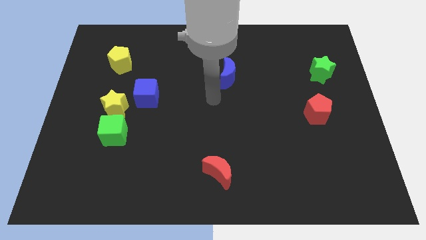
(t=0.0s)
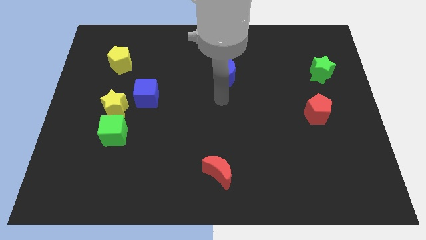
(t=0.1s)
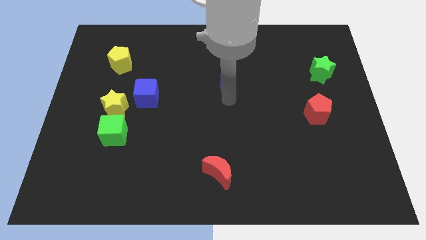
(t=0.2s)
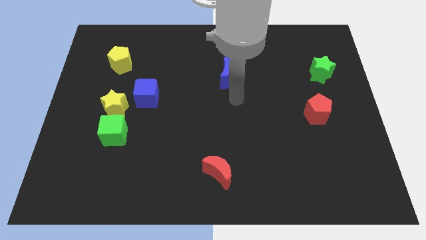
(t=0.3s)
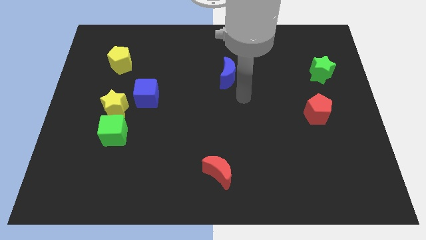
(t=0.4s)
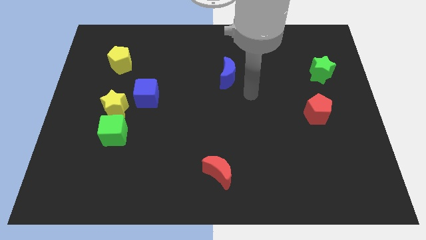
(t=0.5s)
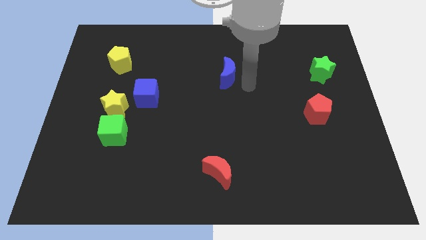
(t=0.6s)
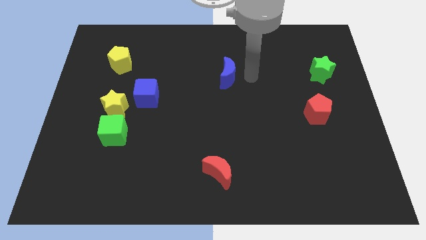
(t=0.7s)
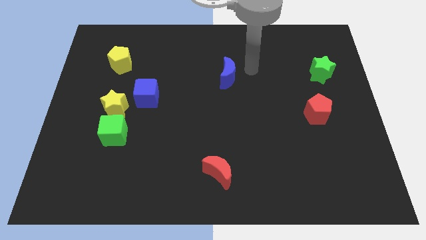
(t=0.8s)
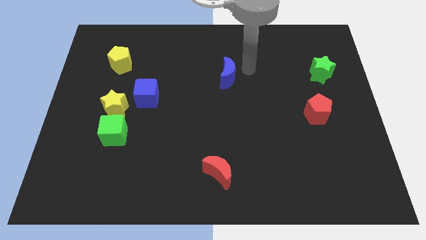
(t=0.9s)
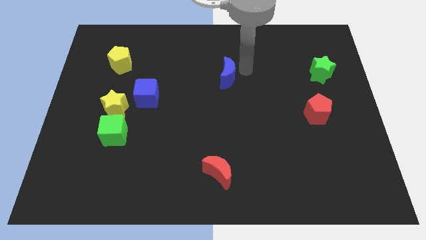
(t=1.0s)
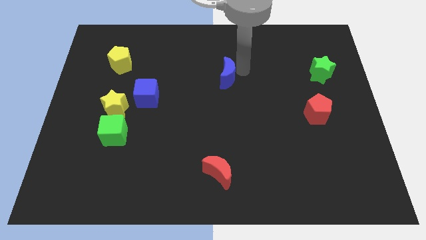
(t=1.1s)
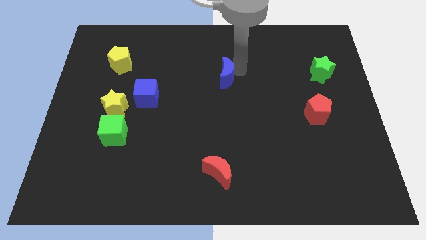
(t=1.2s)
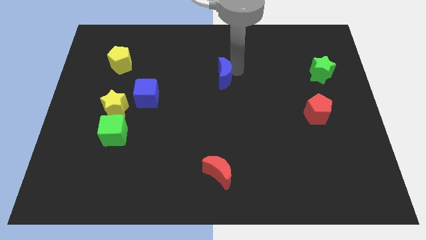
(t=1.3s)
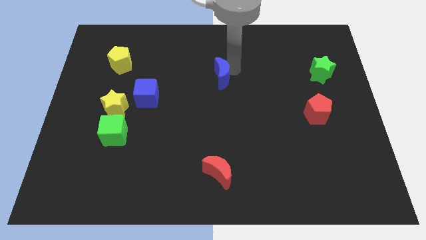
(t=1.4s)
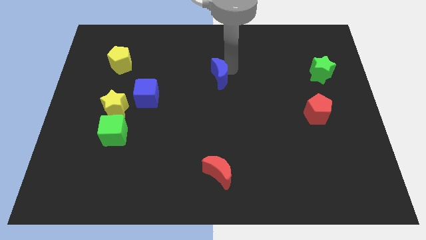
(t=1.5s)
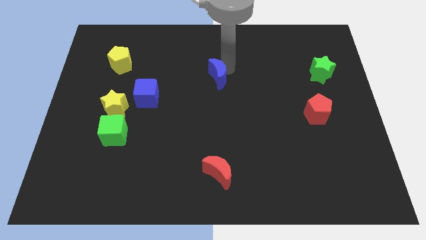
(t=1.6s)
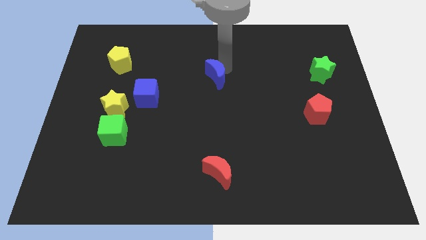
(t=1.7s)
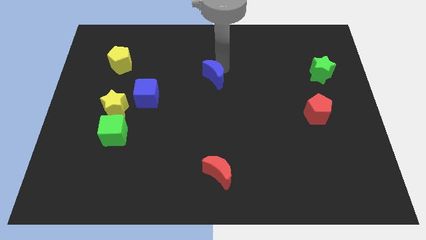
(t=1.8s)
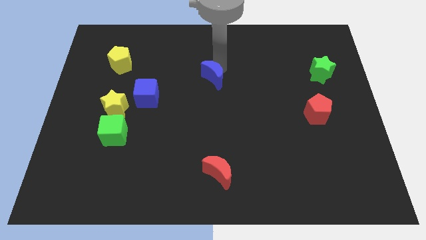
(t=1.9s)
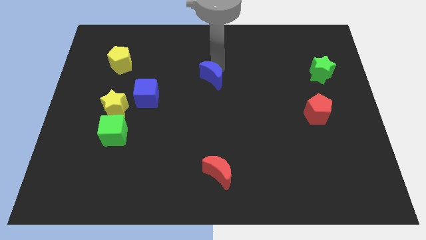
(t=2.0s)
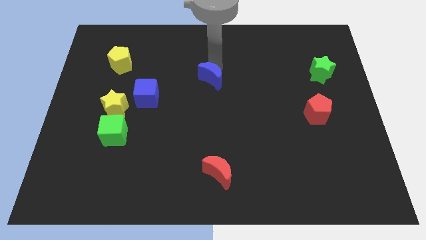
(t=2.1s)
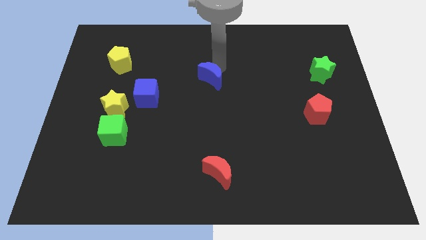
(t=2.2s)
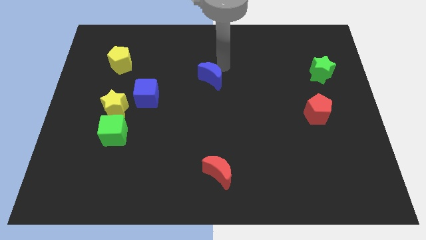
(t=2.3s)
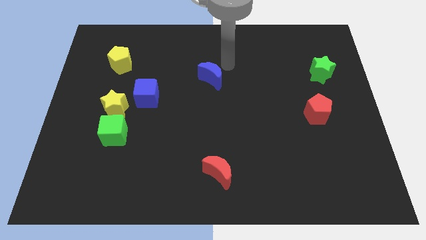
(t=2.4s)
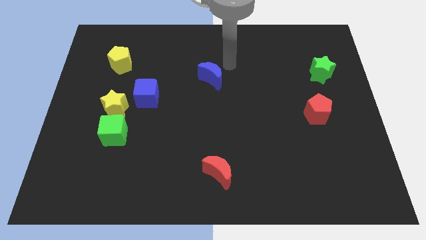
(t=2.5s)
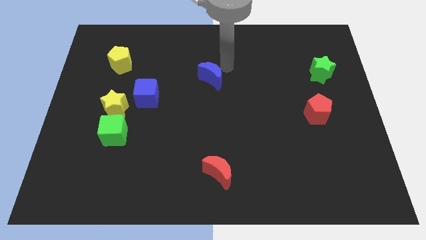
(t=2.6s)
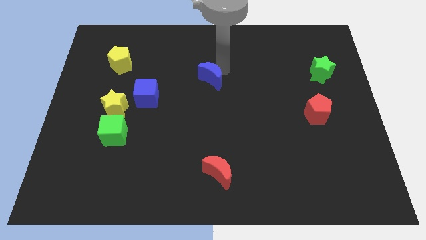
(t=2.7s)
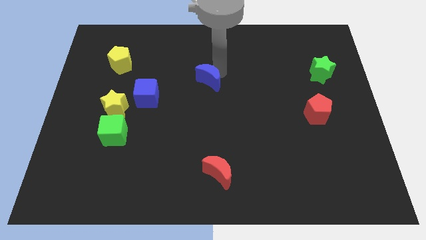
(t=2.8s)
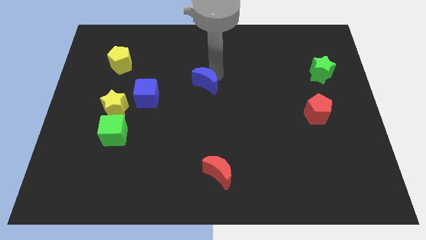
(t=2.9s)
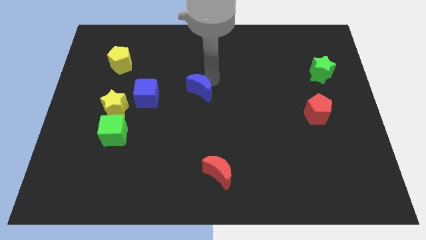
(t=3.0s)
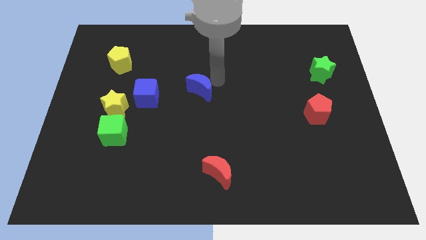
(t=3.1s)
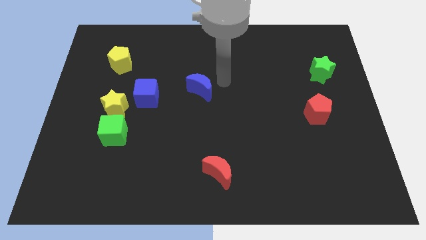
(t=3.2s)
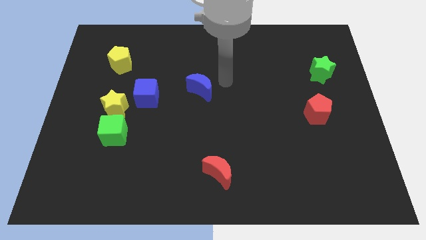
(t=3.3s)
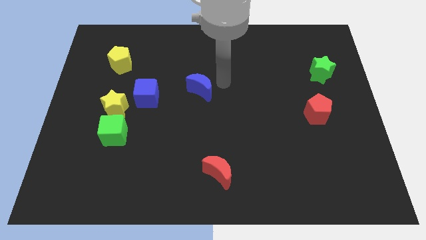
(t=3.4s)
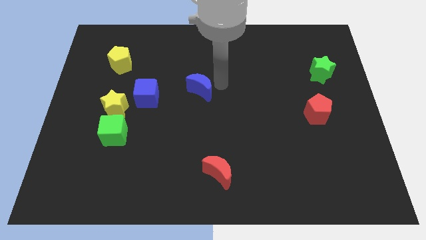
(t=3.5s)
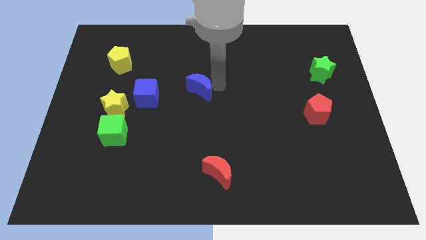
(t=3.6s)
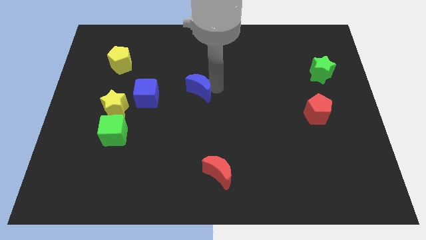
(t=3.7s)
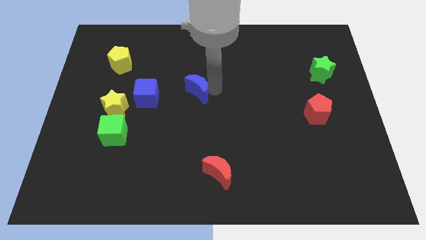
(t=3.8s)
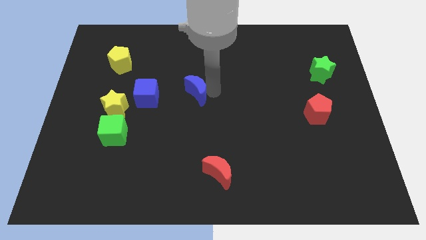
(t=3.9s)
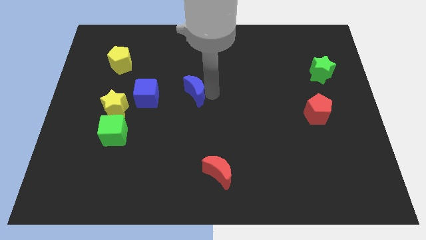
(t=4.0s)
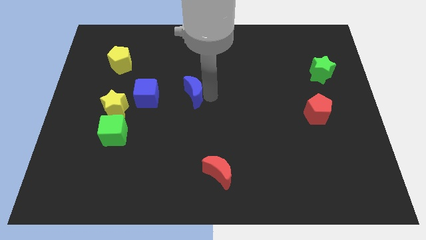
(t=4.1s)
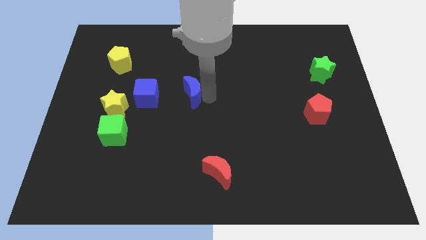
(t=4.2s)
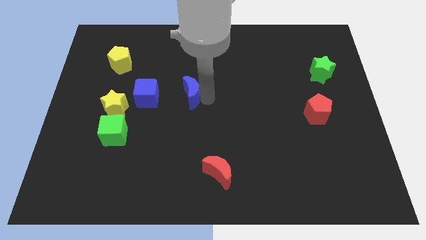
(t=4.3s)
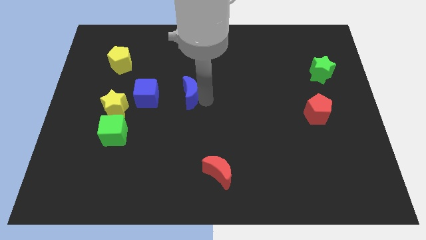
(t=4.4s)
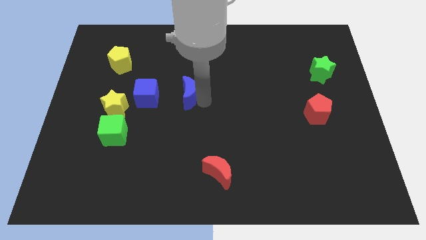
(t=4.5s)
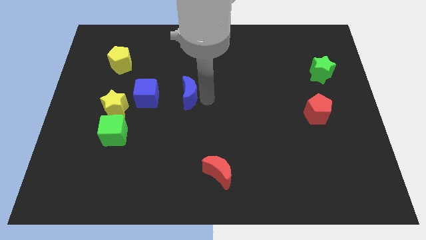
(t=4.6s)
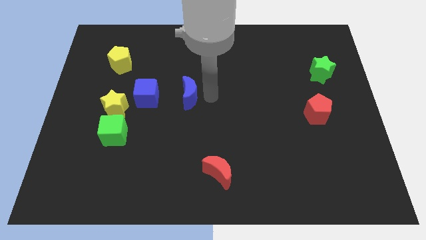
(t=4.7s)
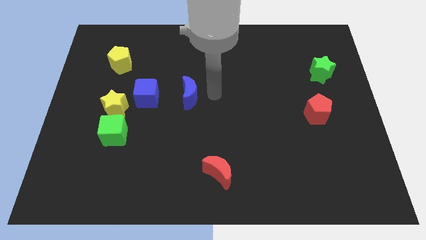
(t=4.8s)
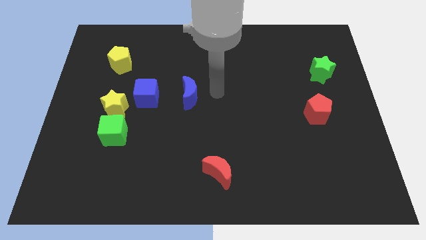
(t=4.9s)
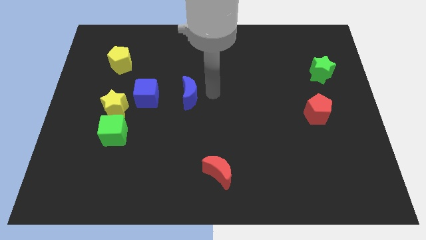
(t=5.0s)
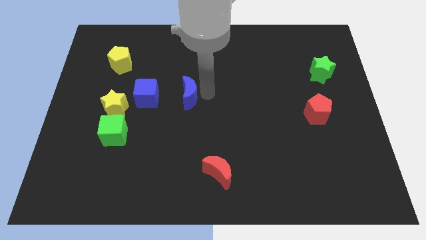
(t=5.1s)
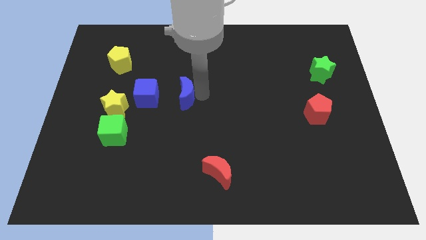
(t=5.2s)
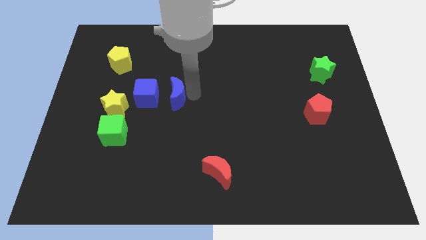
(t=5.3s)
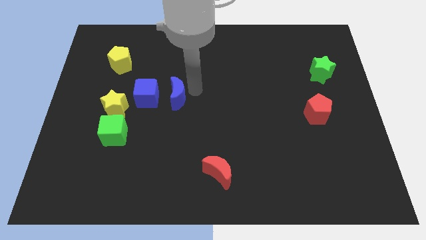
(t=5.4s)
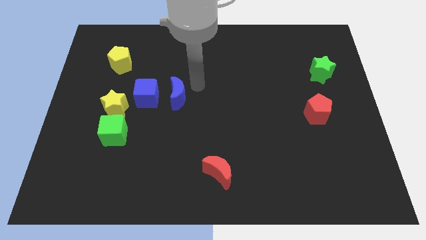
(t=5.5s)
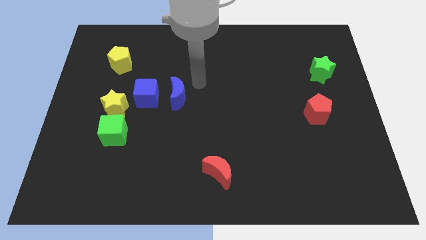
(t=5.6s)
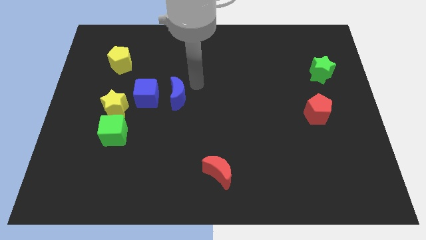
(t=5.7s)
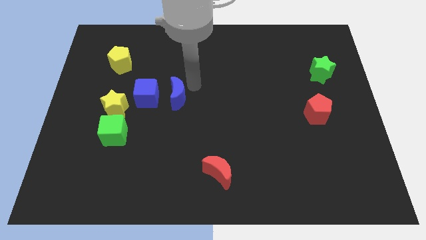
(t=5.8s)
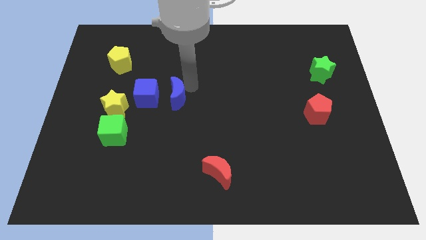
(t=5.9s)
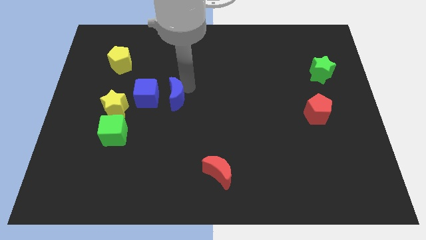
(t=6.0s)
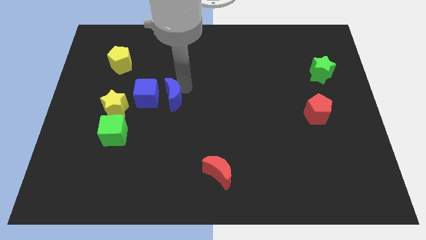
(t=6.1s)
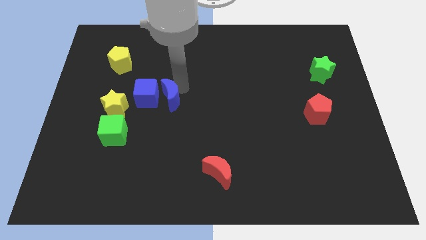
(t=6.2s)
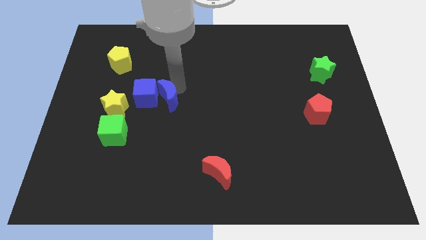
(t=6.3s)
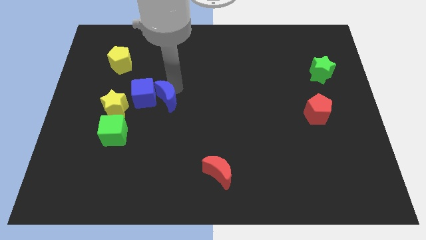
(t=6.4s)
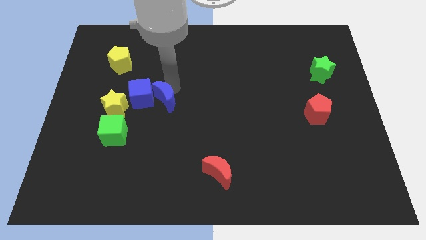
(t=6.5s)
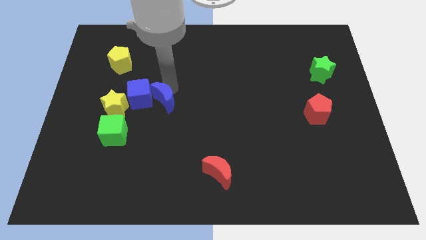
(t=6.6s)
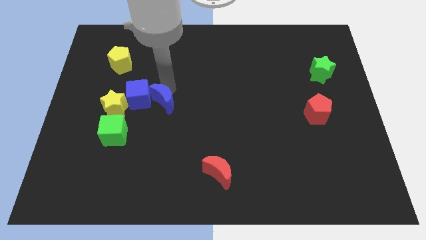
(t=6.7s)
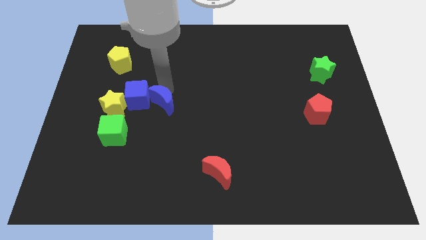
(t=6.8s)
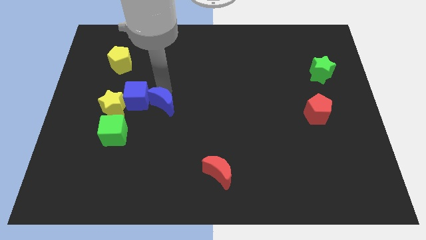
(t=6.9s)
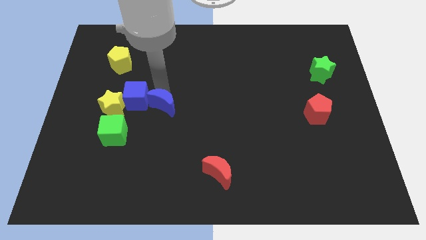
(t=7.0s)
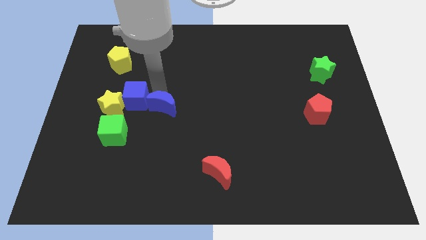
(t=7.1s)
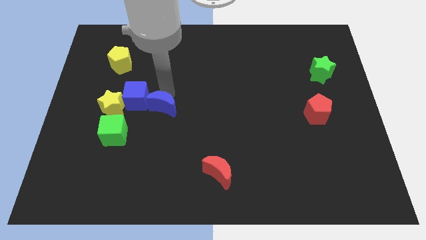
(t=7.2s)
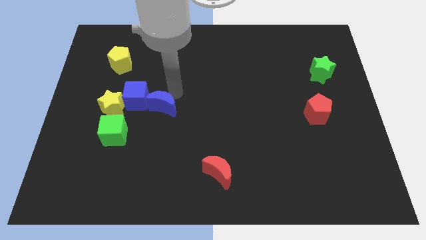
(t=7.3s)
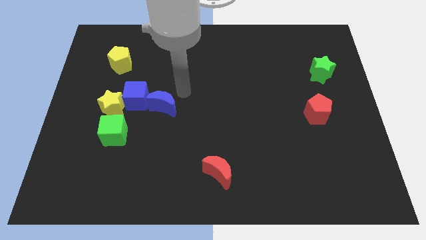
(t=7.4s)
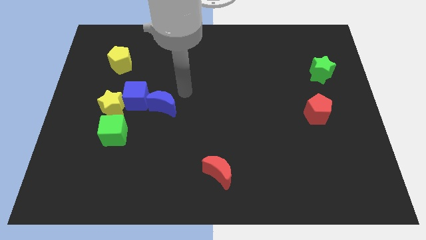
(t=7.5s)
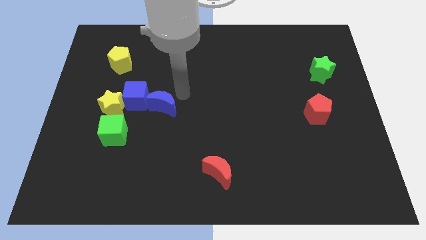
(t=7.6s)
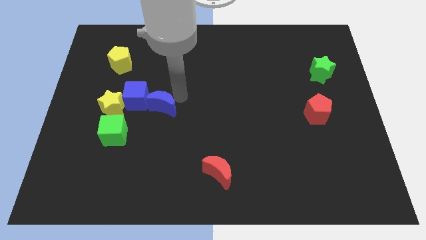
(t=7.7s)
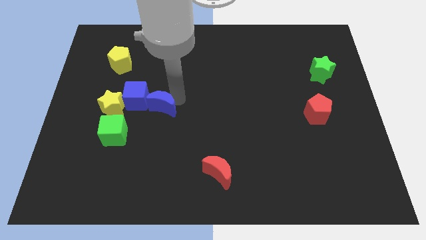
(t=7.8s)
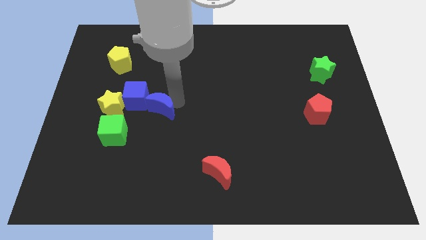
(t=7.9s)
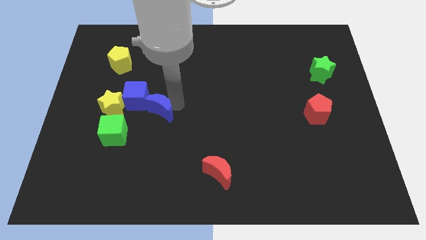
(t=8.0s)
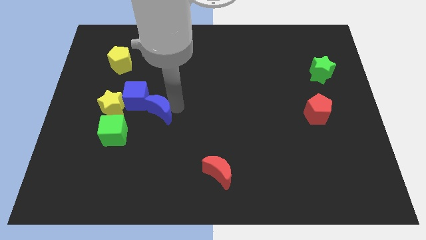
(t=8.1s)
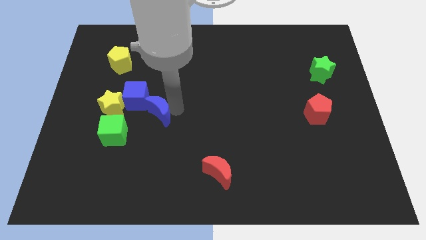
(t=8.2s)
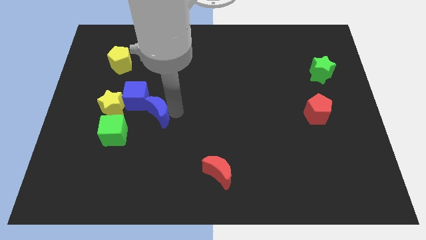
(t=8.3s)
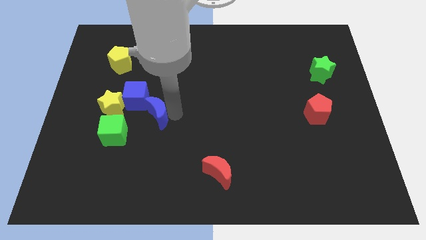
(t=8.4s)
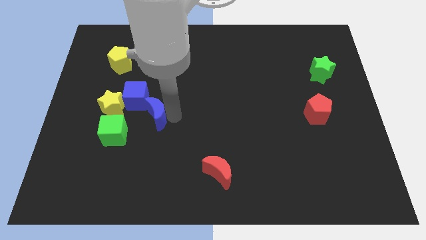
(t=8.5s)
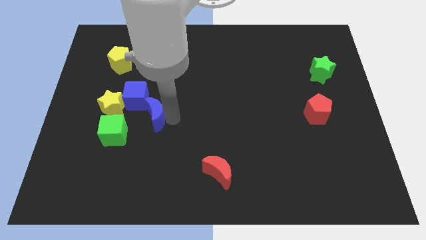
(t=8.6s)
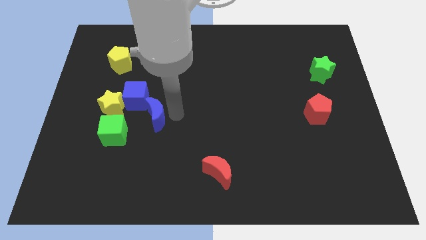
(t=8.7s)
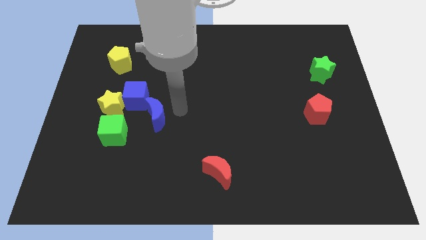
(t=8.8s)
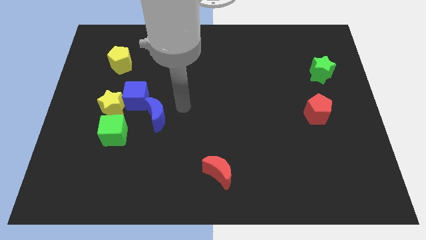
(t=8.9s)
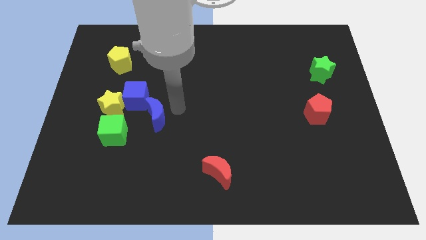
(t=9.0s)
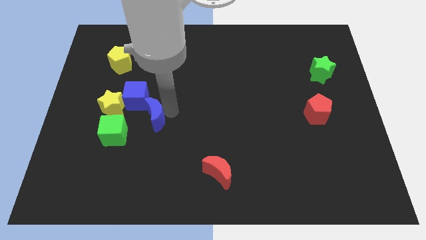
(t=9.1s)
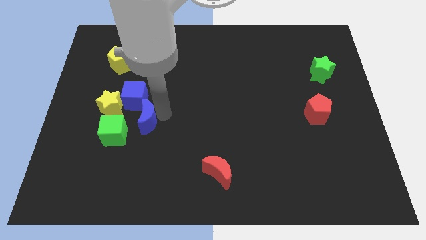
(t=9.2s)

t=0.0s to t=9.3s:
push the blue moon diagonally down and to the right of the yellow star
